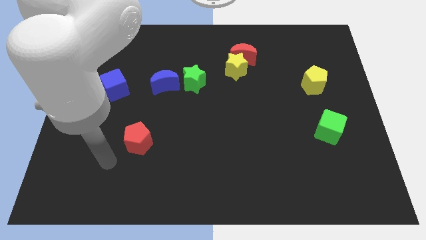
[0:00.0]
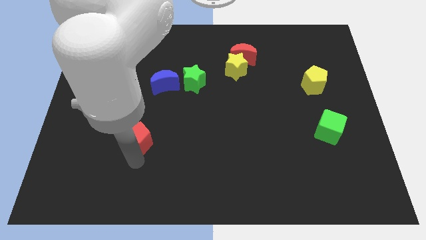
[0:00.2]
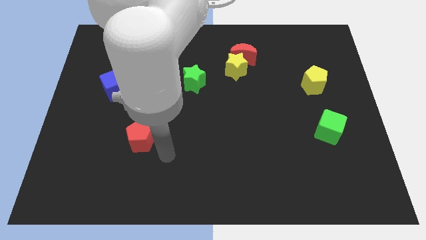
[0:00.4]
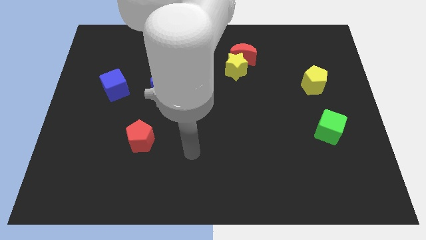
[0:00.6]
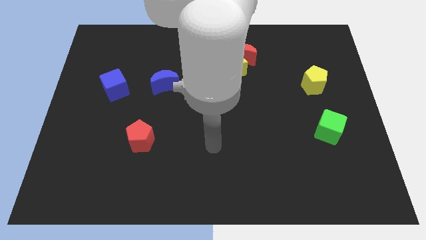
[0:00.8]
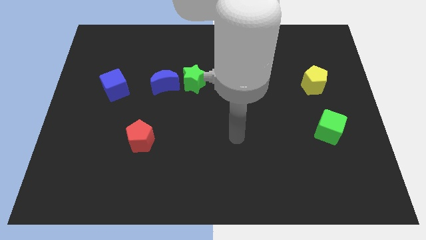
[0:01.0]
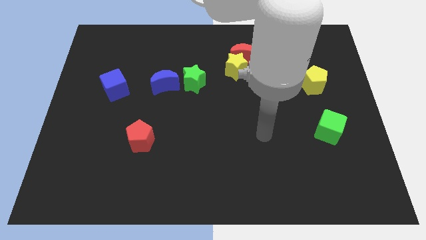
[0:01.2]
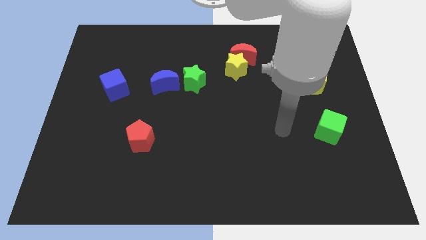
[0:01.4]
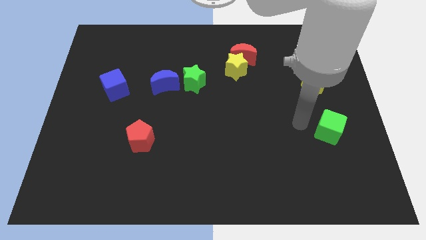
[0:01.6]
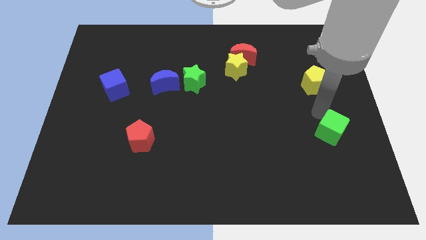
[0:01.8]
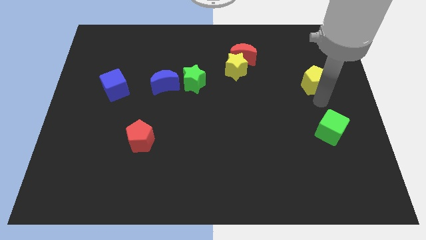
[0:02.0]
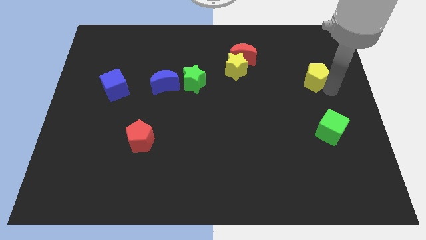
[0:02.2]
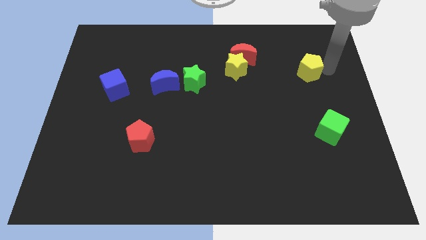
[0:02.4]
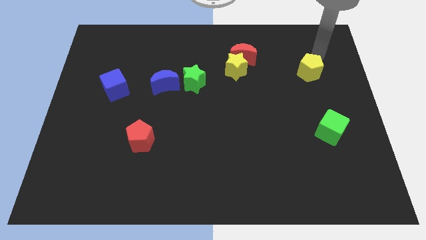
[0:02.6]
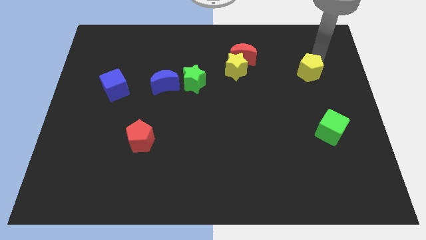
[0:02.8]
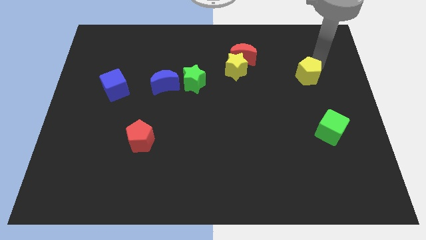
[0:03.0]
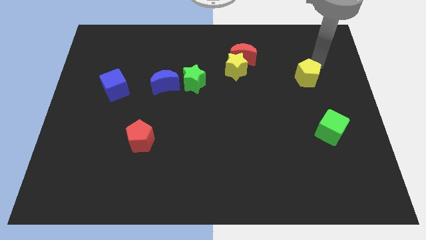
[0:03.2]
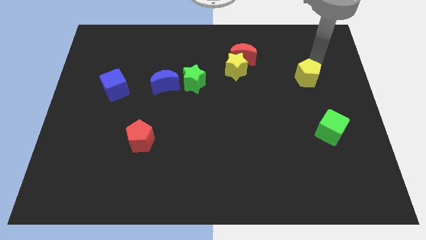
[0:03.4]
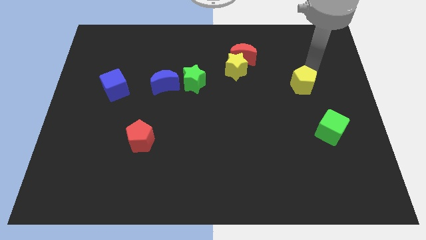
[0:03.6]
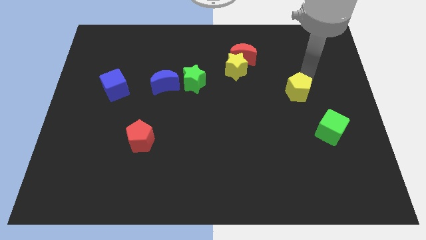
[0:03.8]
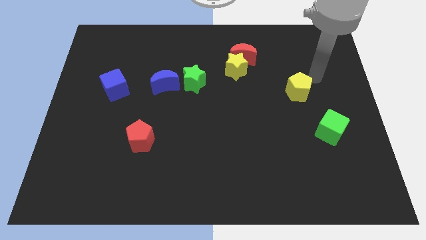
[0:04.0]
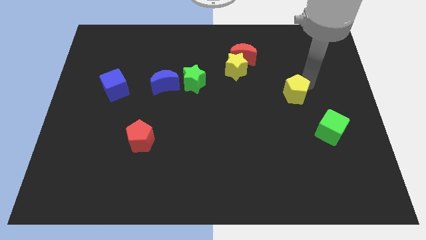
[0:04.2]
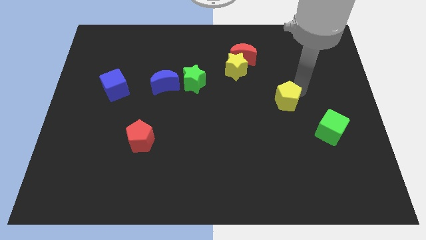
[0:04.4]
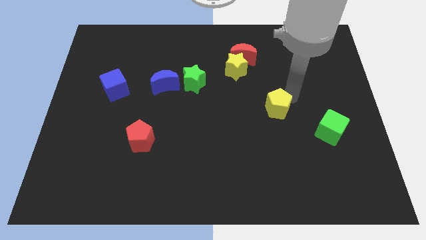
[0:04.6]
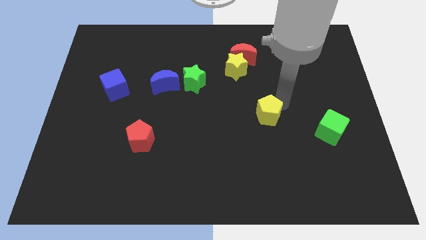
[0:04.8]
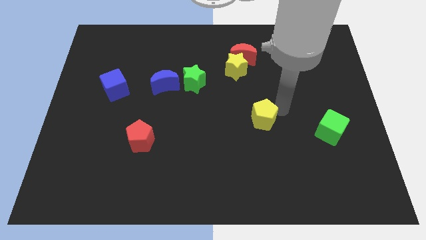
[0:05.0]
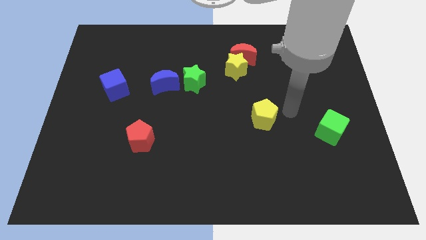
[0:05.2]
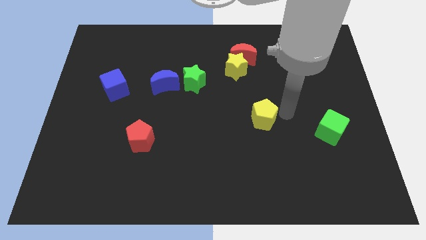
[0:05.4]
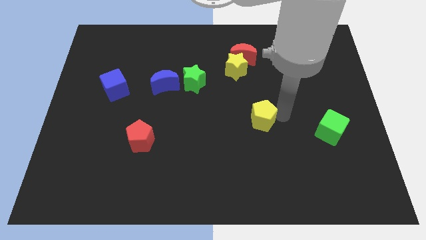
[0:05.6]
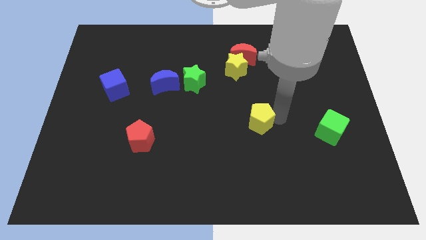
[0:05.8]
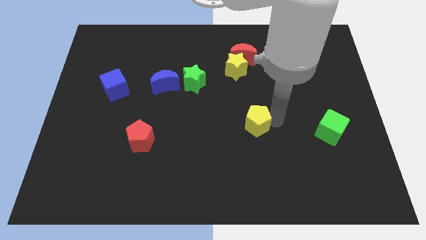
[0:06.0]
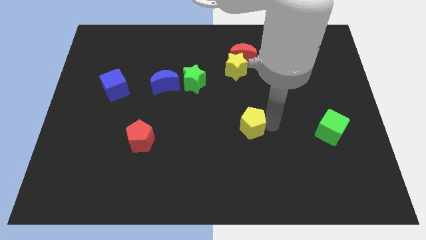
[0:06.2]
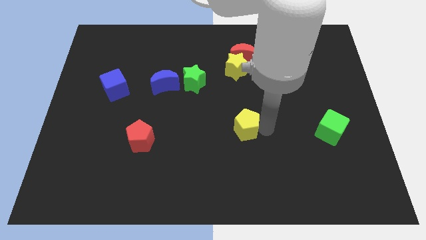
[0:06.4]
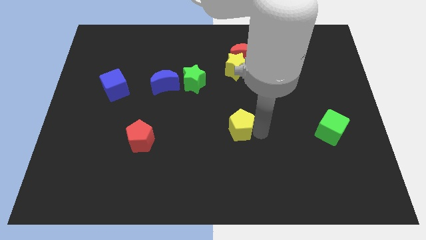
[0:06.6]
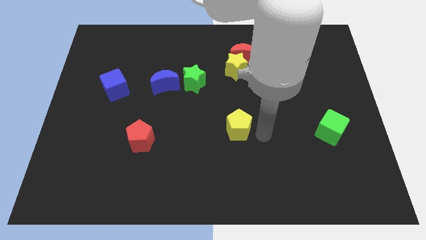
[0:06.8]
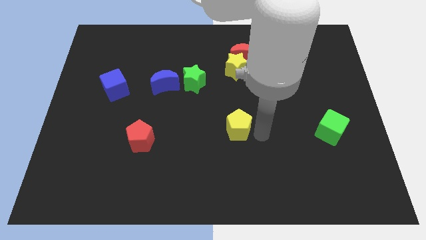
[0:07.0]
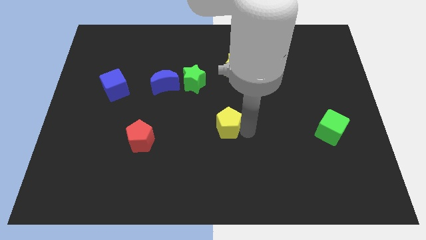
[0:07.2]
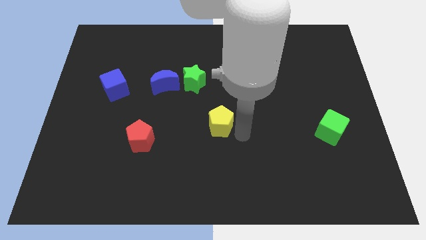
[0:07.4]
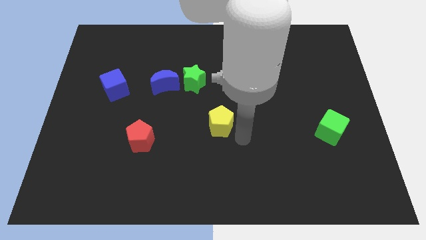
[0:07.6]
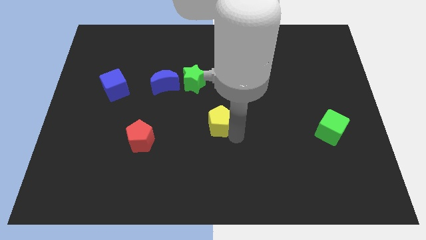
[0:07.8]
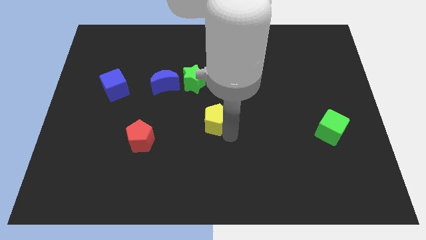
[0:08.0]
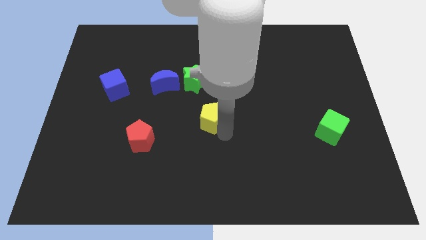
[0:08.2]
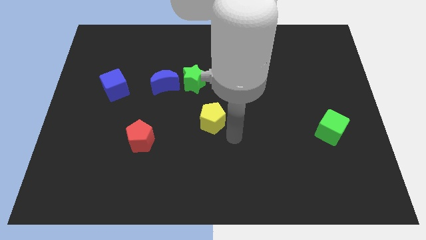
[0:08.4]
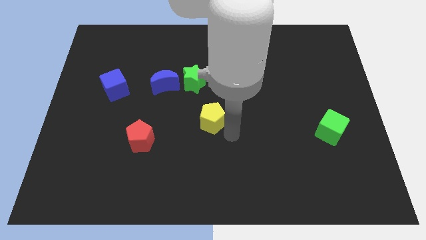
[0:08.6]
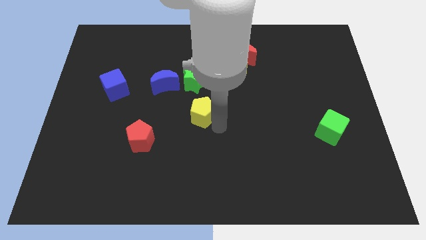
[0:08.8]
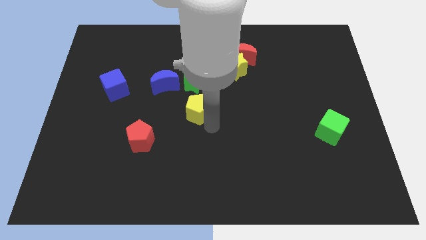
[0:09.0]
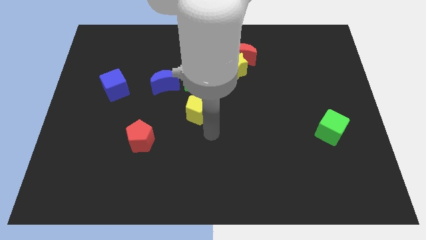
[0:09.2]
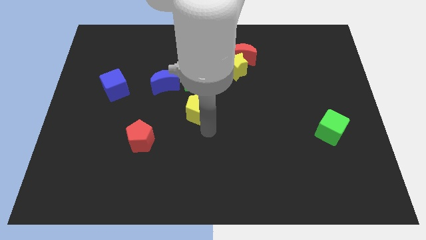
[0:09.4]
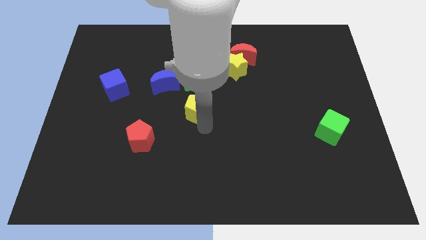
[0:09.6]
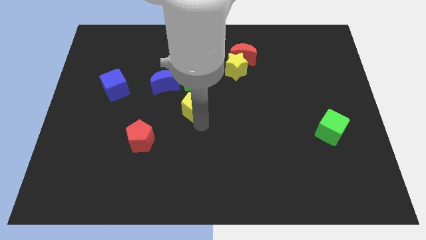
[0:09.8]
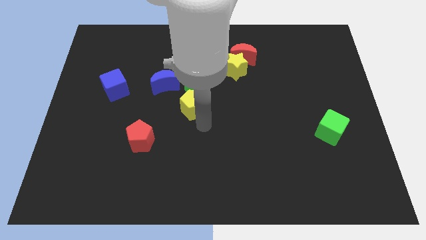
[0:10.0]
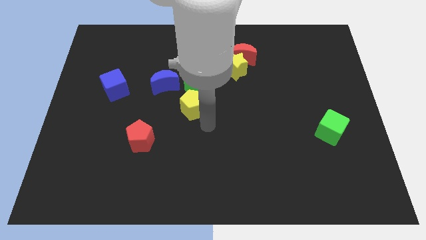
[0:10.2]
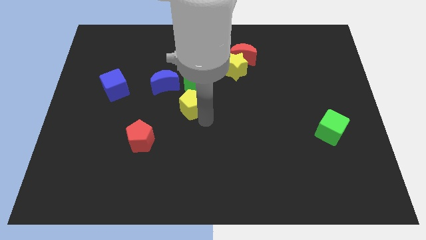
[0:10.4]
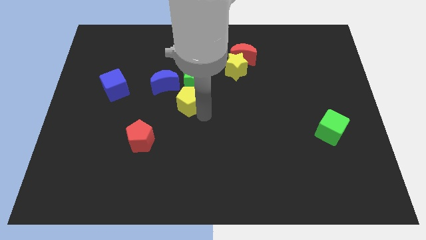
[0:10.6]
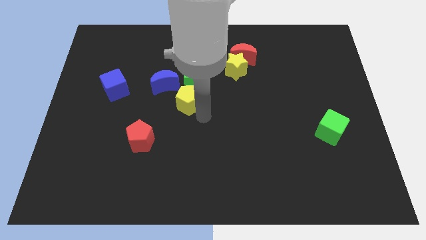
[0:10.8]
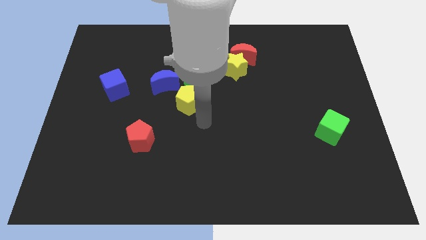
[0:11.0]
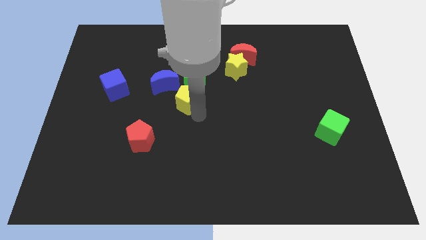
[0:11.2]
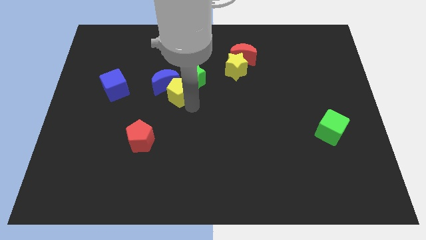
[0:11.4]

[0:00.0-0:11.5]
push the yellow pentagon towards the blue moon
